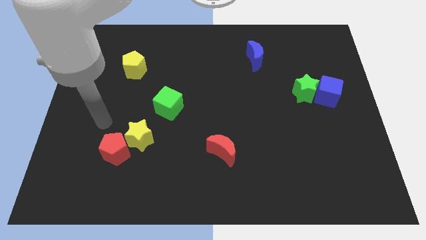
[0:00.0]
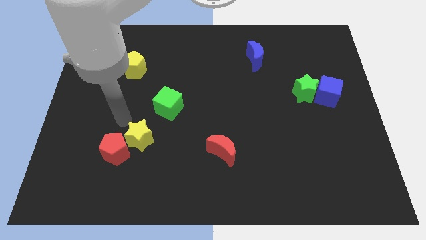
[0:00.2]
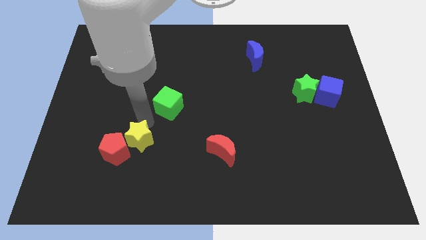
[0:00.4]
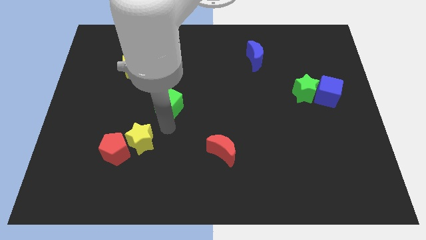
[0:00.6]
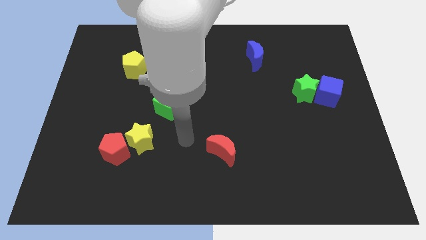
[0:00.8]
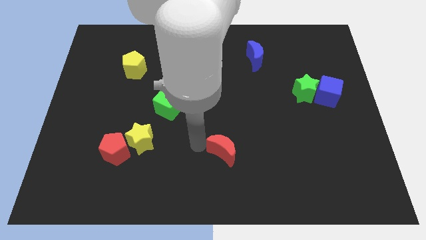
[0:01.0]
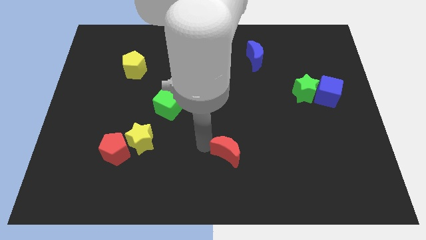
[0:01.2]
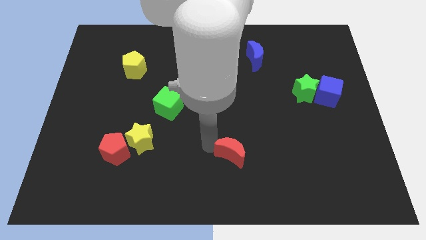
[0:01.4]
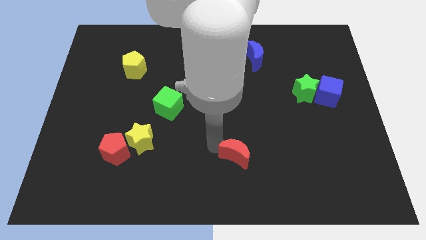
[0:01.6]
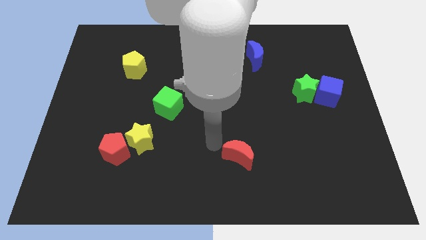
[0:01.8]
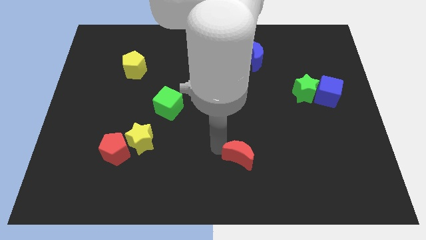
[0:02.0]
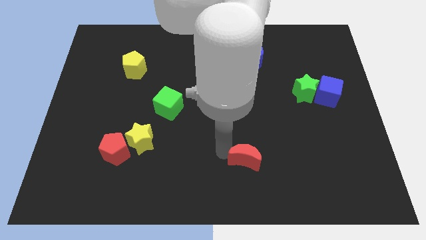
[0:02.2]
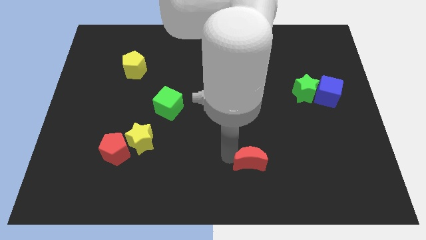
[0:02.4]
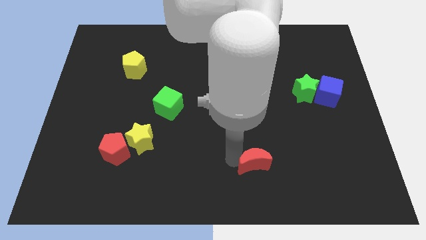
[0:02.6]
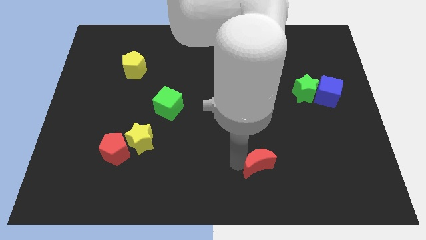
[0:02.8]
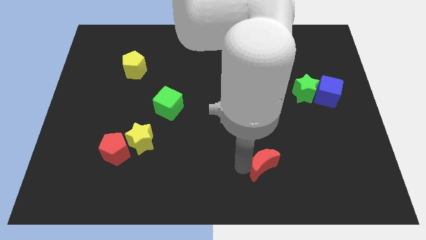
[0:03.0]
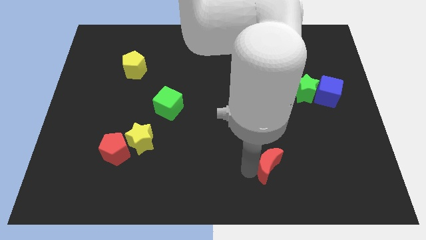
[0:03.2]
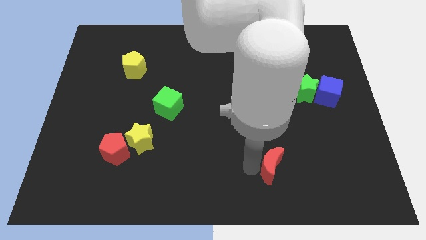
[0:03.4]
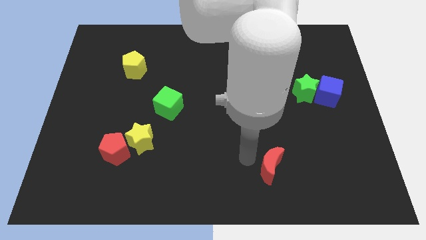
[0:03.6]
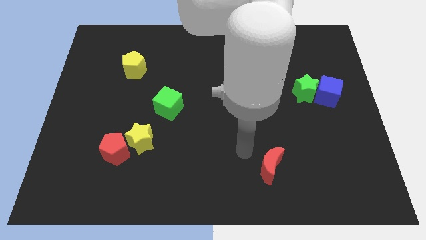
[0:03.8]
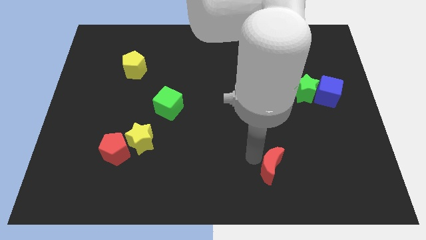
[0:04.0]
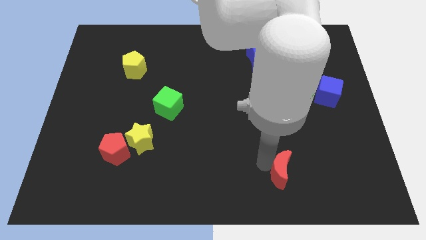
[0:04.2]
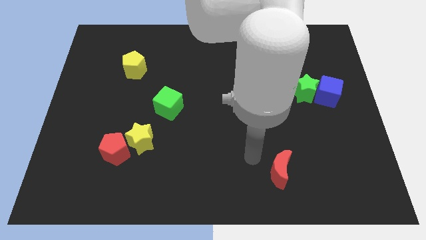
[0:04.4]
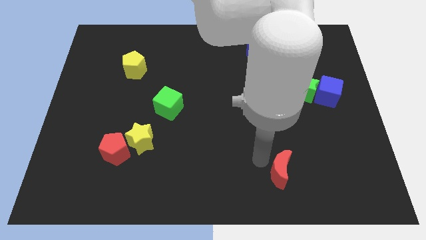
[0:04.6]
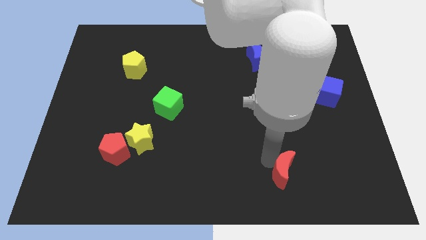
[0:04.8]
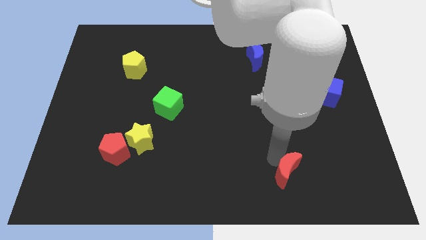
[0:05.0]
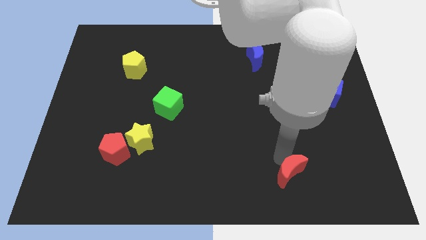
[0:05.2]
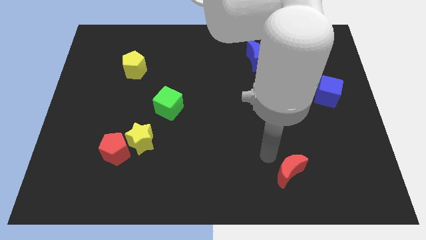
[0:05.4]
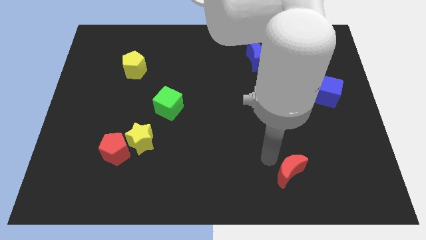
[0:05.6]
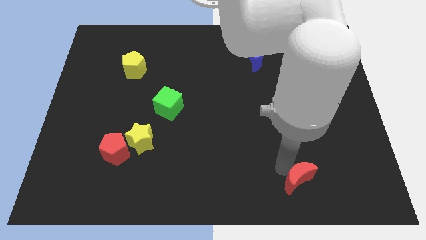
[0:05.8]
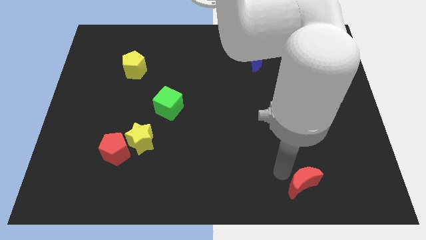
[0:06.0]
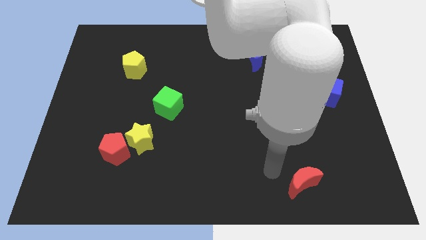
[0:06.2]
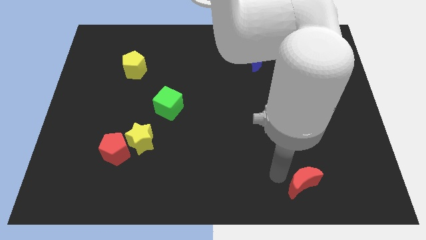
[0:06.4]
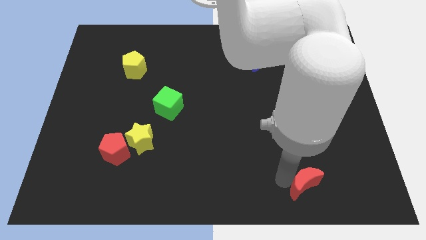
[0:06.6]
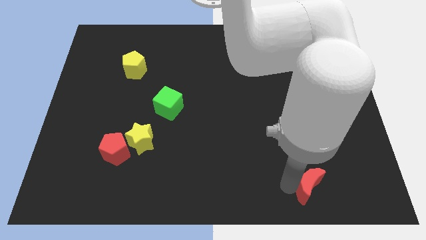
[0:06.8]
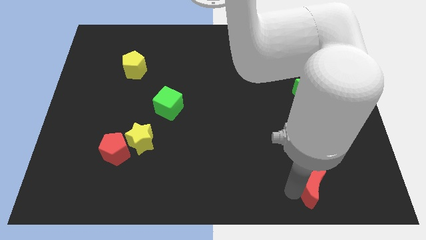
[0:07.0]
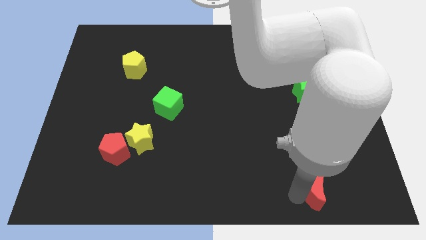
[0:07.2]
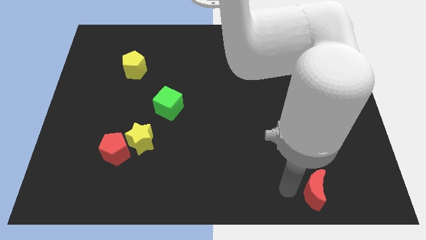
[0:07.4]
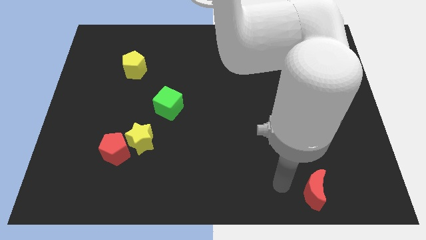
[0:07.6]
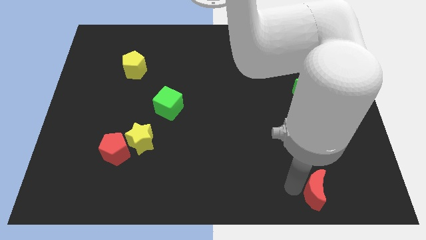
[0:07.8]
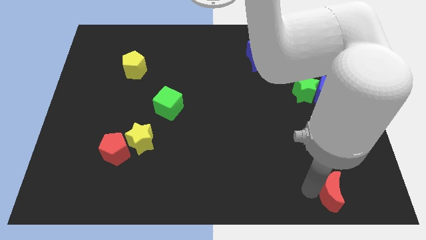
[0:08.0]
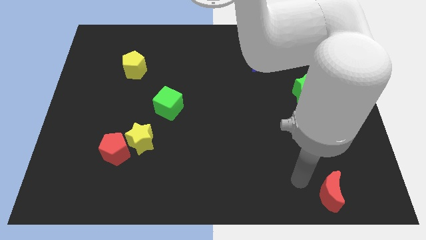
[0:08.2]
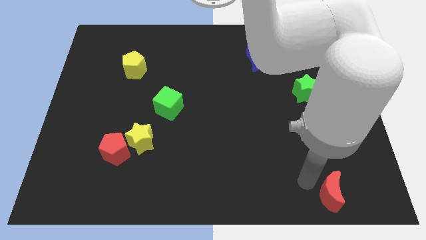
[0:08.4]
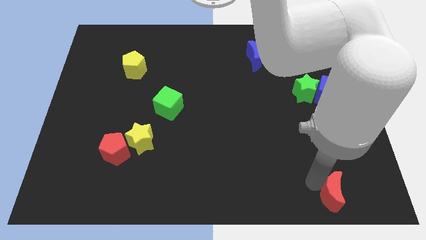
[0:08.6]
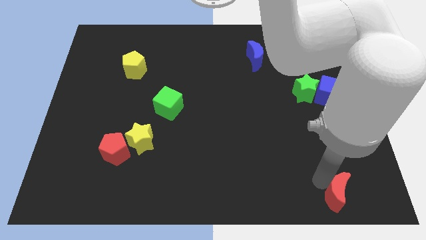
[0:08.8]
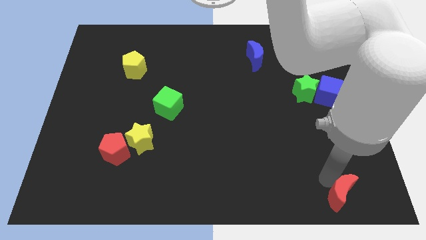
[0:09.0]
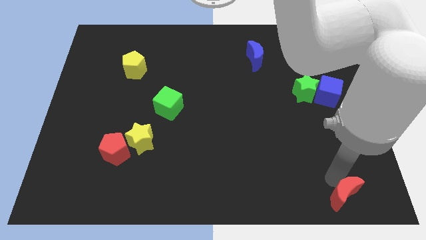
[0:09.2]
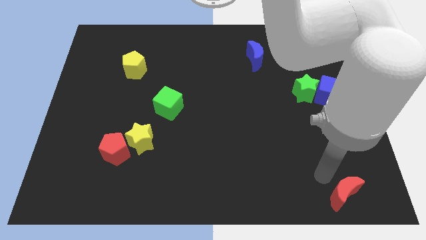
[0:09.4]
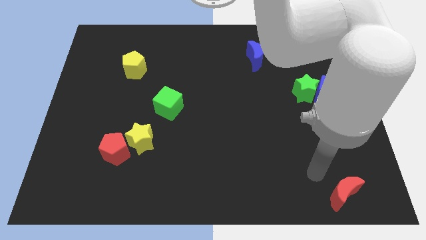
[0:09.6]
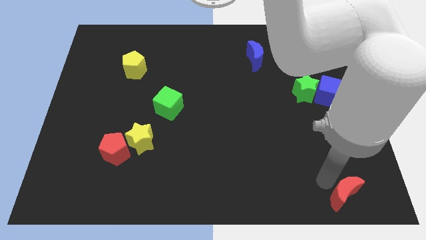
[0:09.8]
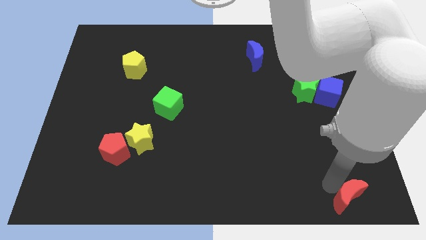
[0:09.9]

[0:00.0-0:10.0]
slide the red moon to the lower right corner
